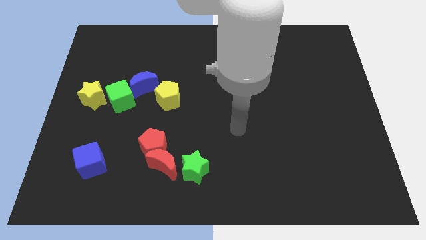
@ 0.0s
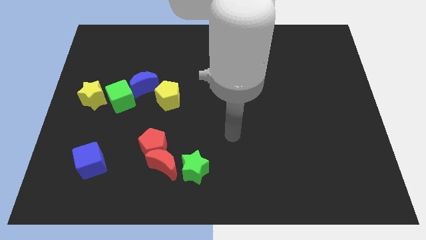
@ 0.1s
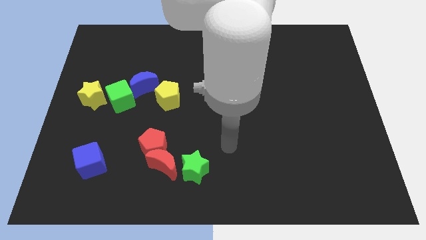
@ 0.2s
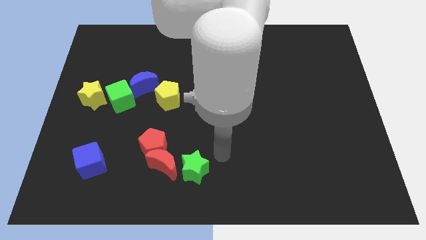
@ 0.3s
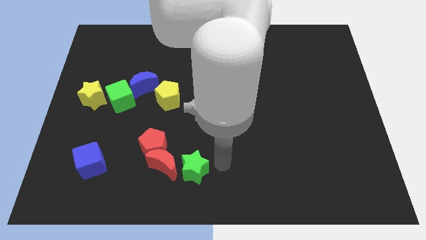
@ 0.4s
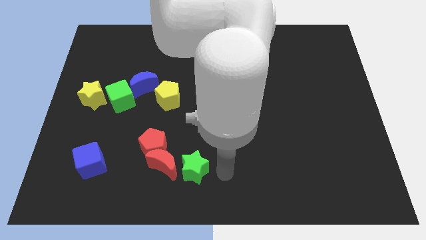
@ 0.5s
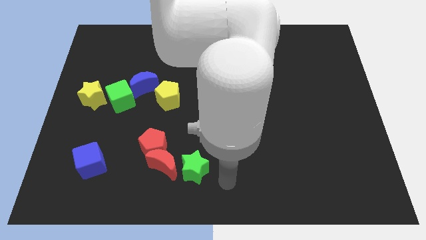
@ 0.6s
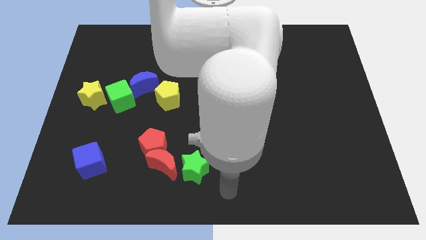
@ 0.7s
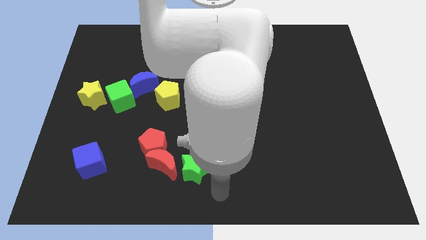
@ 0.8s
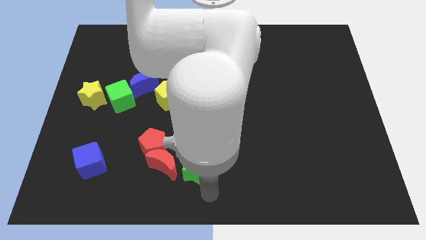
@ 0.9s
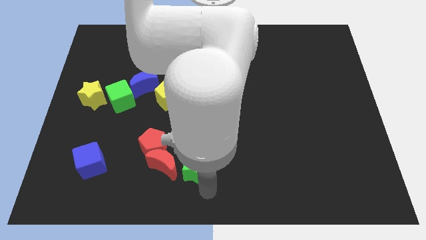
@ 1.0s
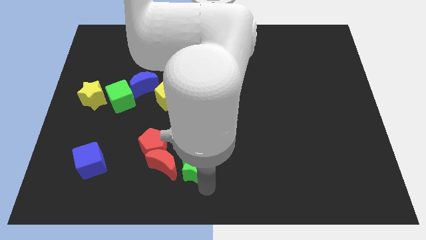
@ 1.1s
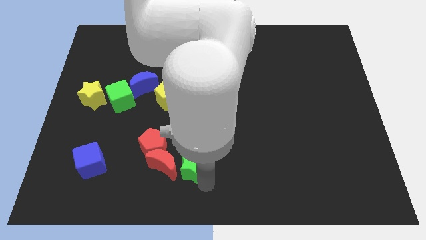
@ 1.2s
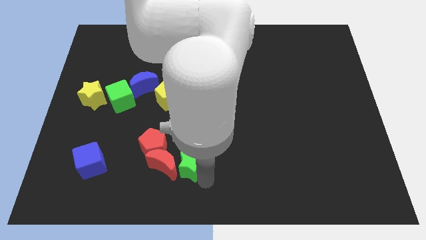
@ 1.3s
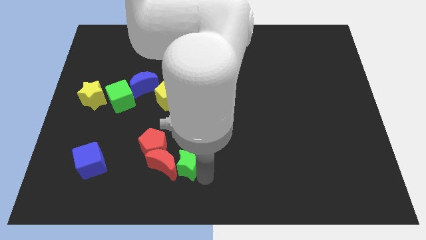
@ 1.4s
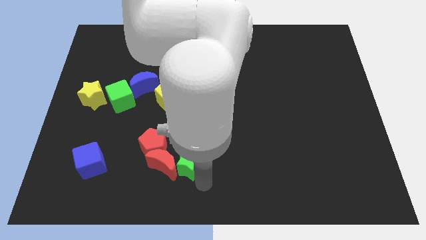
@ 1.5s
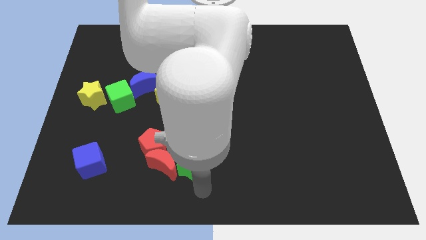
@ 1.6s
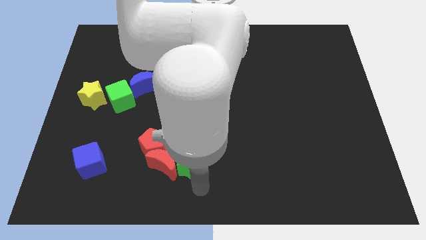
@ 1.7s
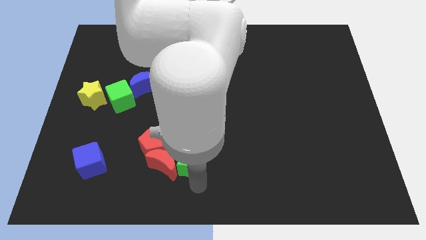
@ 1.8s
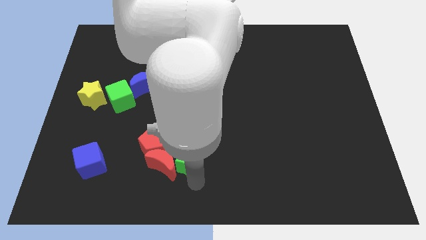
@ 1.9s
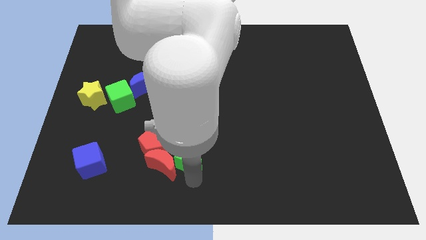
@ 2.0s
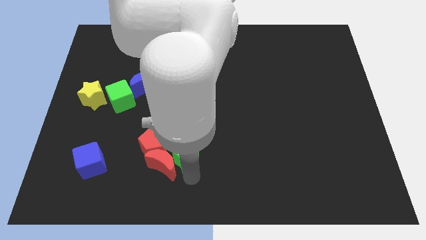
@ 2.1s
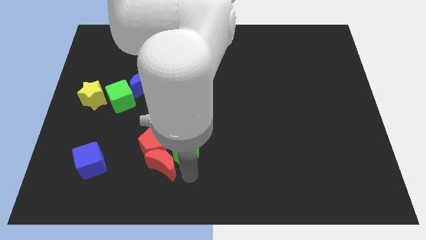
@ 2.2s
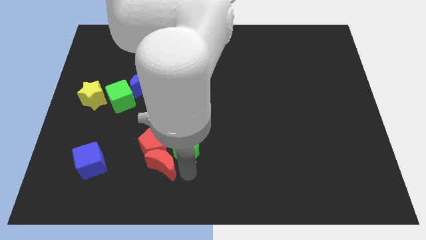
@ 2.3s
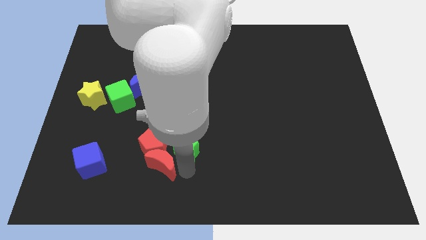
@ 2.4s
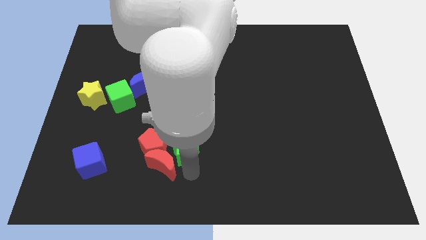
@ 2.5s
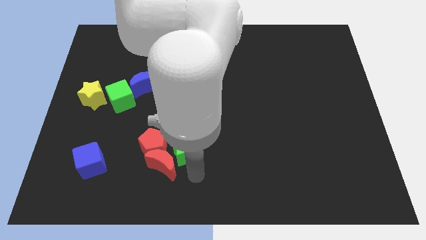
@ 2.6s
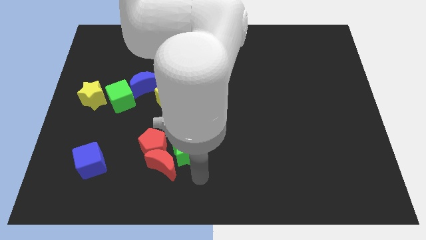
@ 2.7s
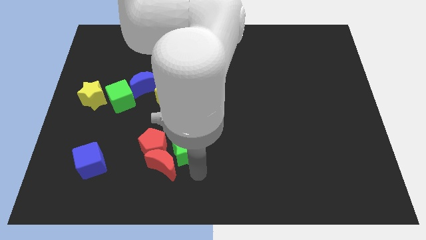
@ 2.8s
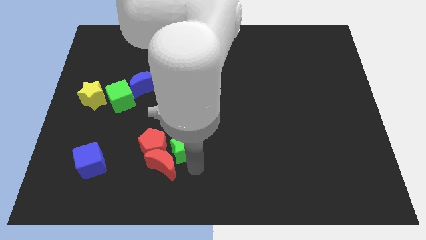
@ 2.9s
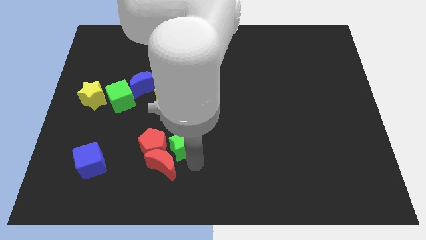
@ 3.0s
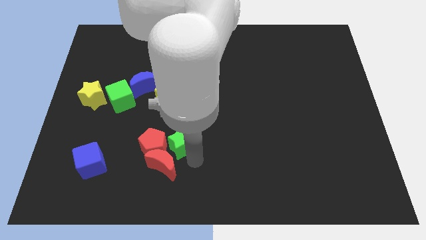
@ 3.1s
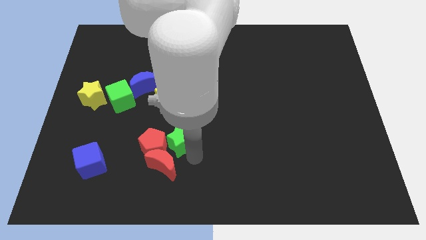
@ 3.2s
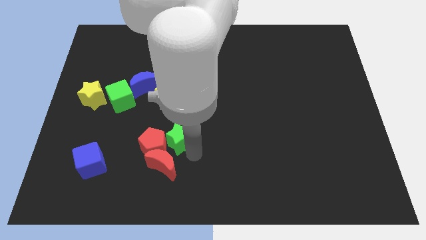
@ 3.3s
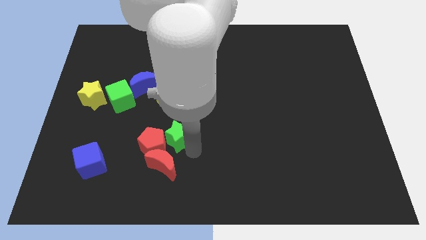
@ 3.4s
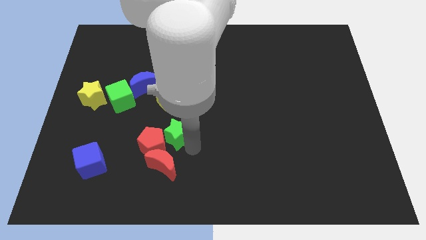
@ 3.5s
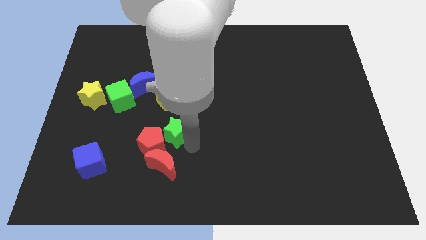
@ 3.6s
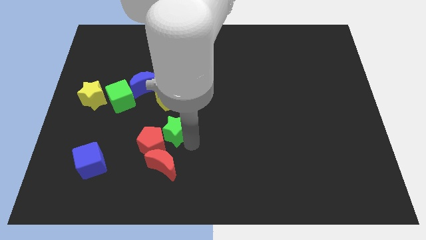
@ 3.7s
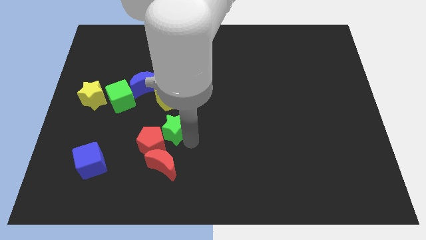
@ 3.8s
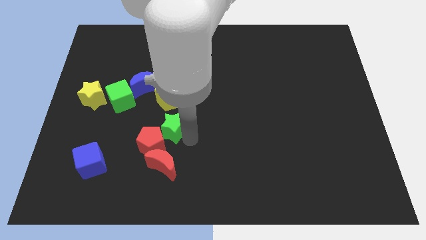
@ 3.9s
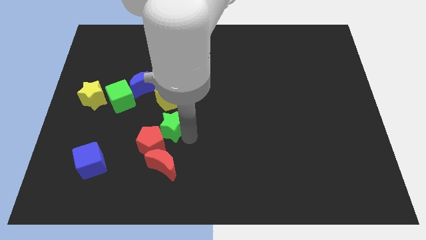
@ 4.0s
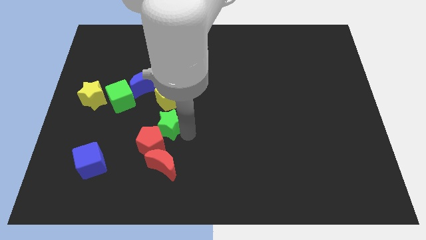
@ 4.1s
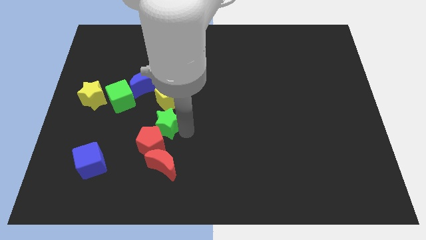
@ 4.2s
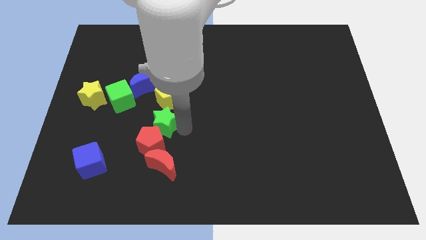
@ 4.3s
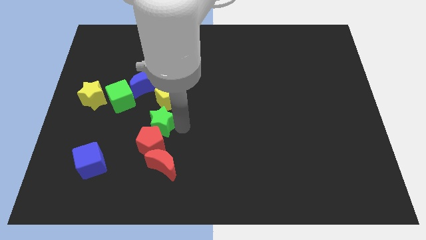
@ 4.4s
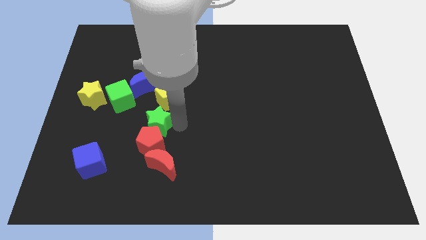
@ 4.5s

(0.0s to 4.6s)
put the green star to the bottom of the blue moon

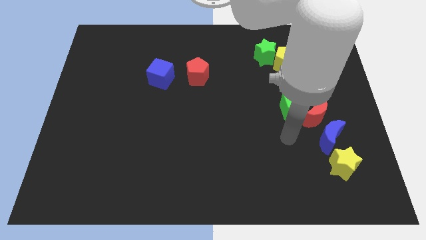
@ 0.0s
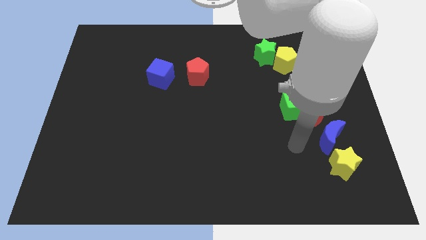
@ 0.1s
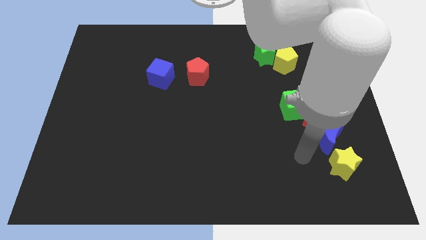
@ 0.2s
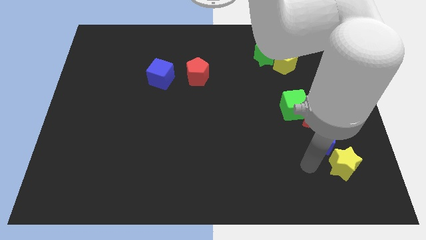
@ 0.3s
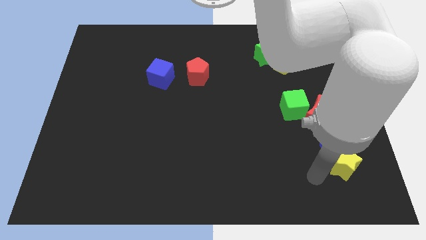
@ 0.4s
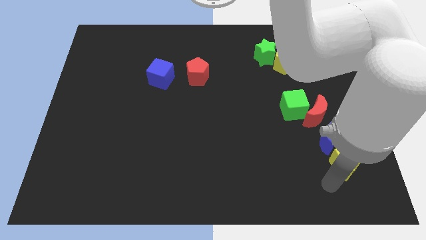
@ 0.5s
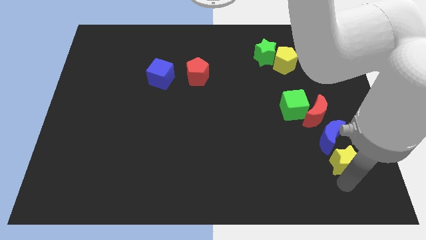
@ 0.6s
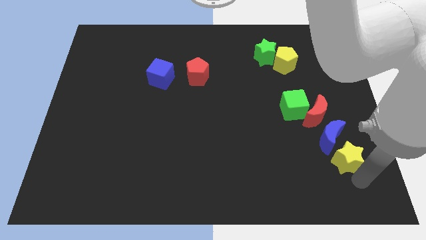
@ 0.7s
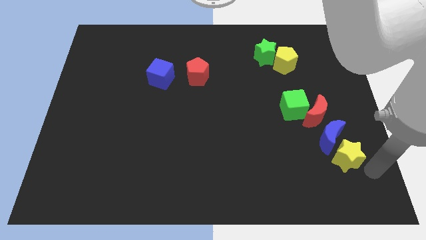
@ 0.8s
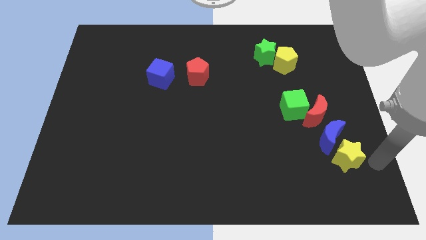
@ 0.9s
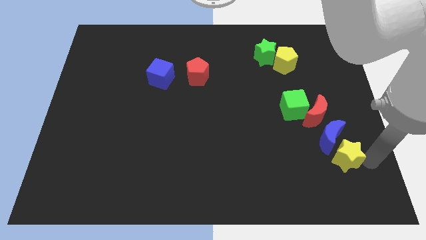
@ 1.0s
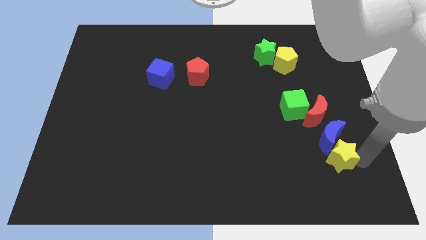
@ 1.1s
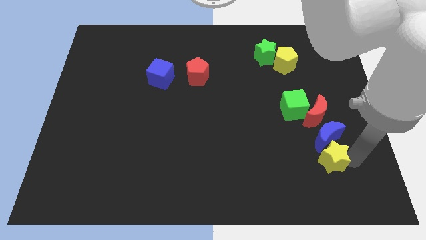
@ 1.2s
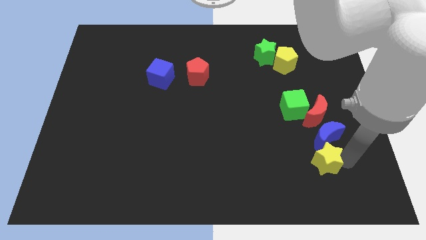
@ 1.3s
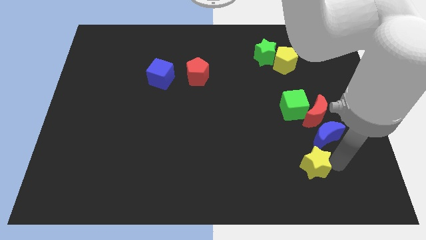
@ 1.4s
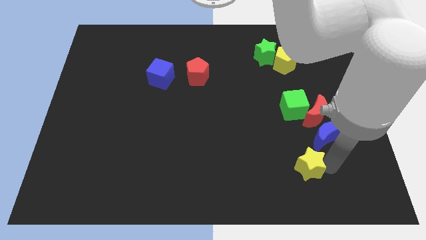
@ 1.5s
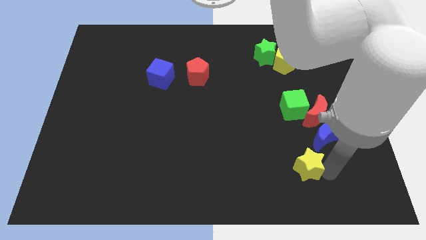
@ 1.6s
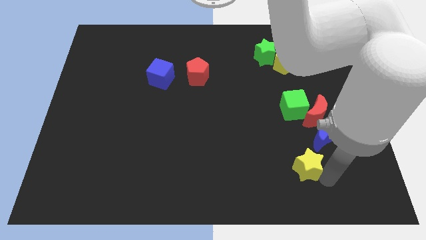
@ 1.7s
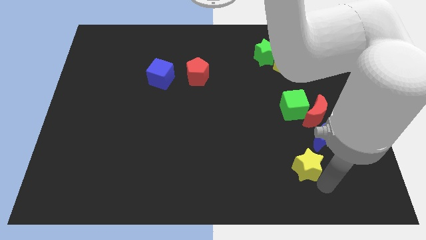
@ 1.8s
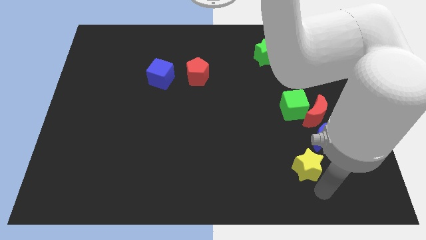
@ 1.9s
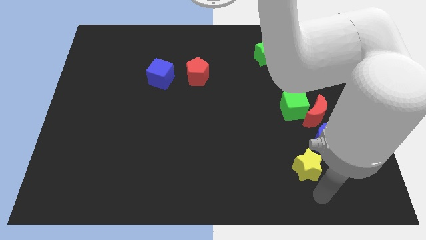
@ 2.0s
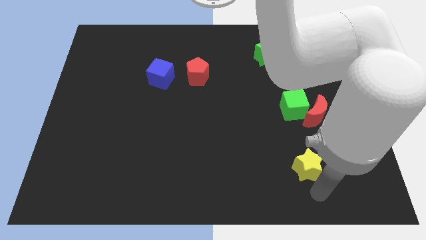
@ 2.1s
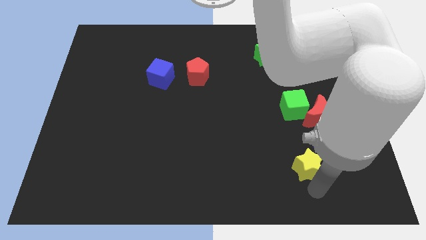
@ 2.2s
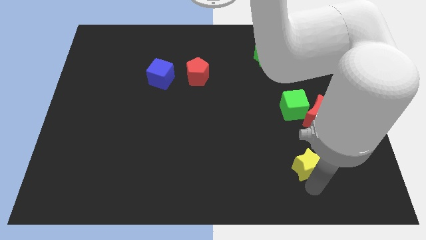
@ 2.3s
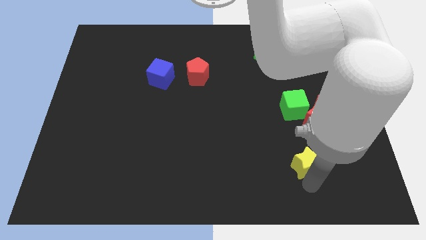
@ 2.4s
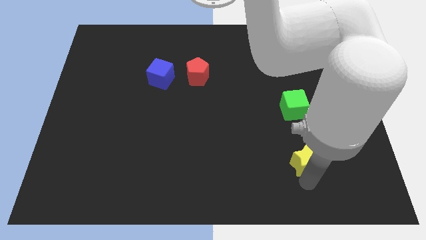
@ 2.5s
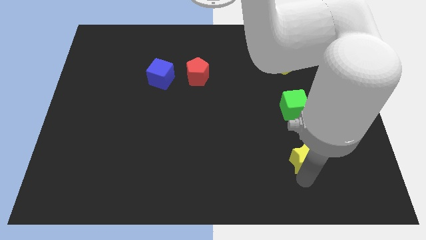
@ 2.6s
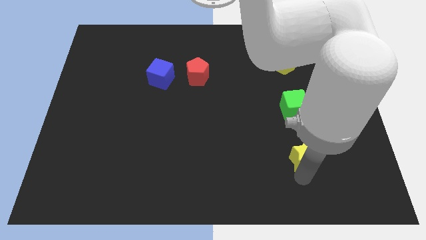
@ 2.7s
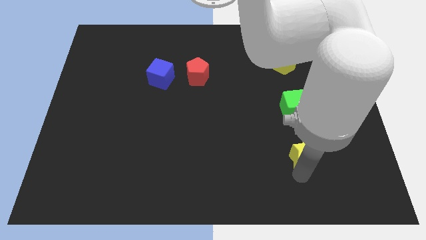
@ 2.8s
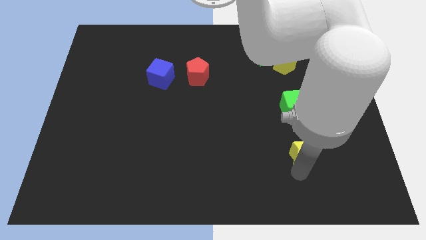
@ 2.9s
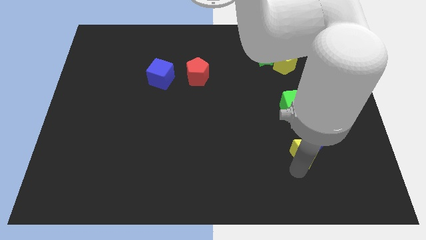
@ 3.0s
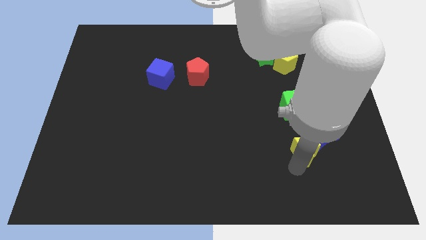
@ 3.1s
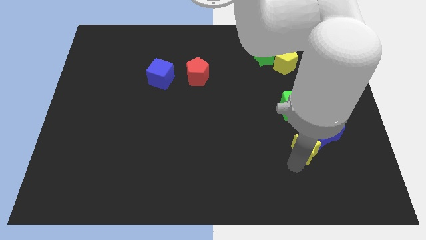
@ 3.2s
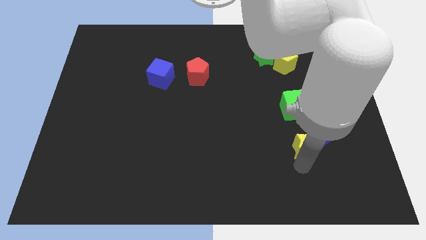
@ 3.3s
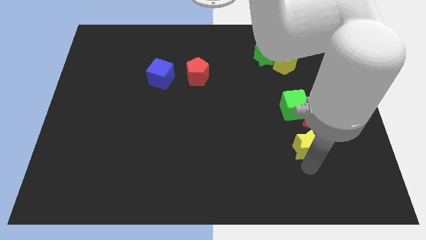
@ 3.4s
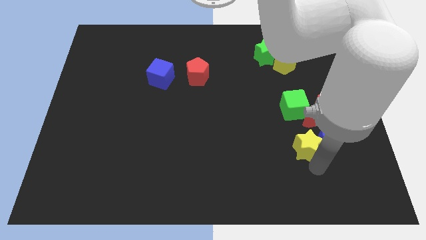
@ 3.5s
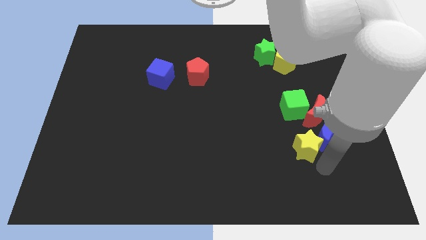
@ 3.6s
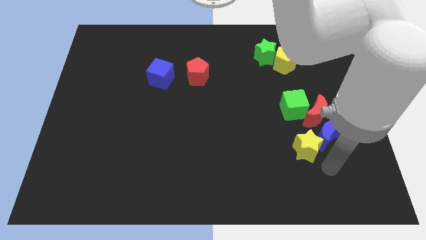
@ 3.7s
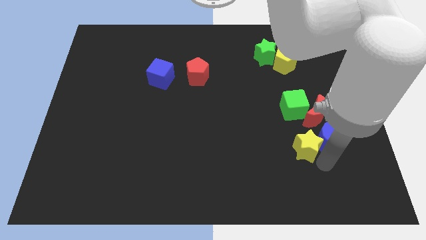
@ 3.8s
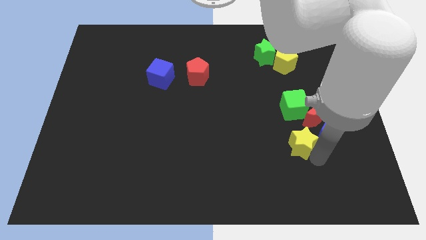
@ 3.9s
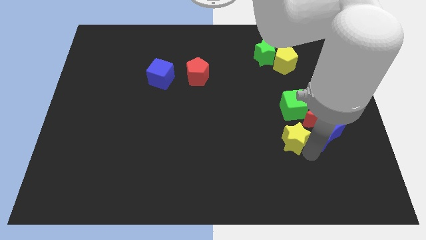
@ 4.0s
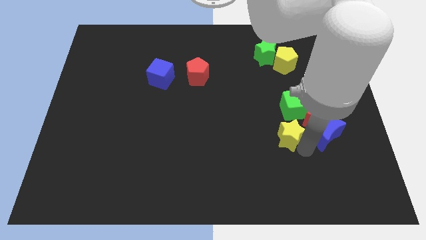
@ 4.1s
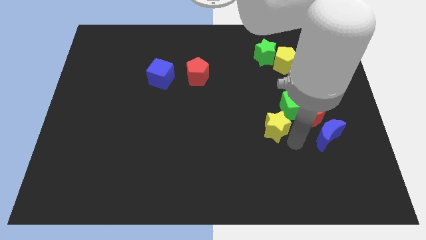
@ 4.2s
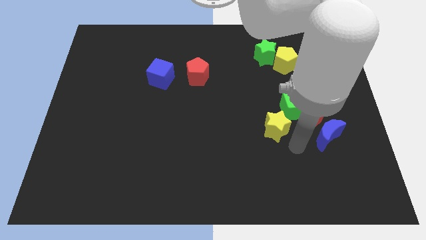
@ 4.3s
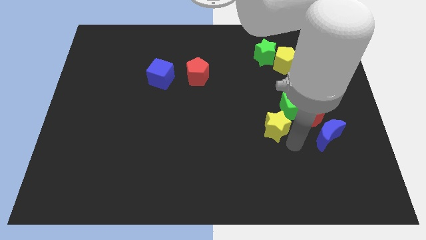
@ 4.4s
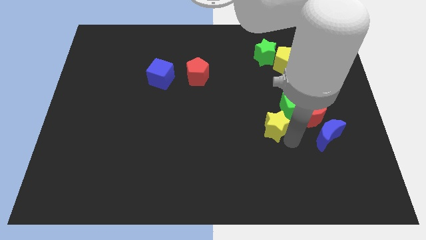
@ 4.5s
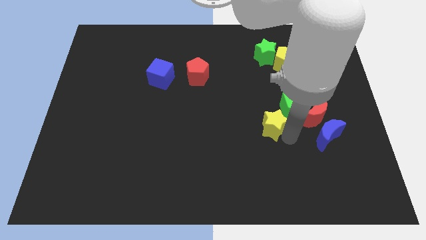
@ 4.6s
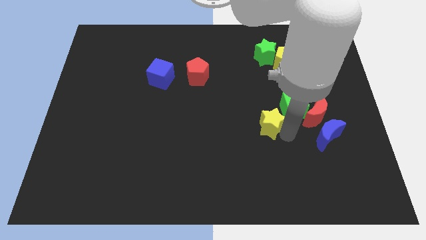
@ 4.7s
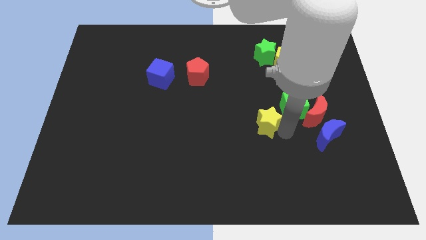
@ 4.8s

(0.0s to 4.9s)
slide the yellow star just left of the green cube
